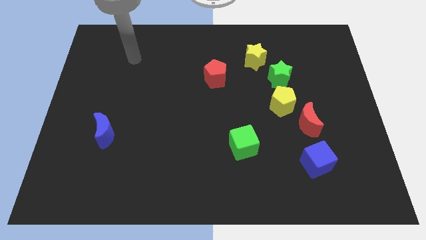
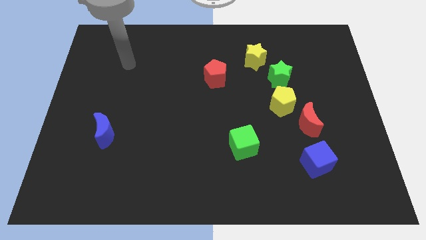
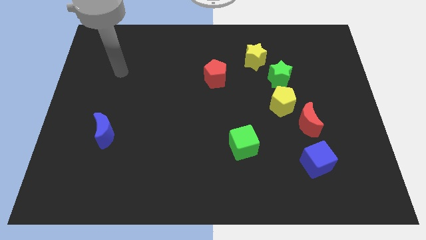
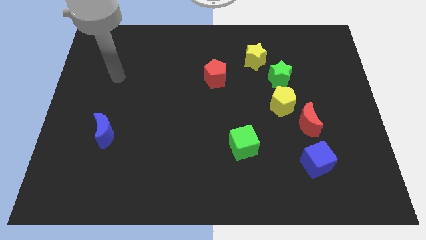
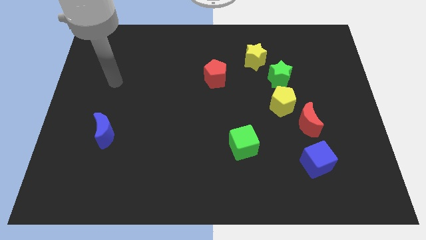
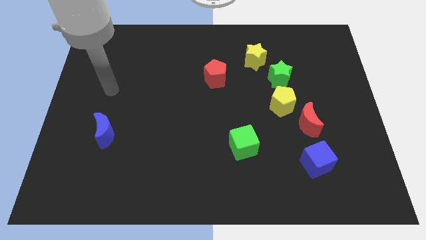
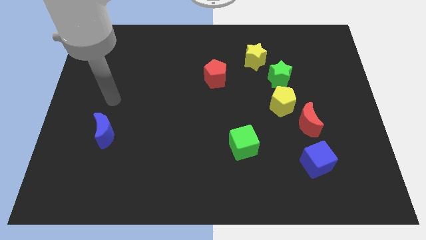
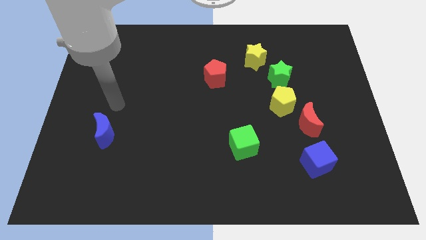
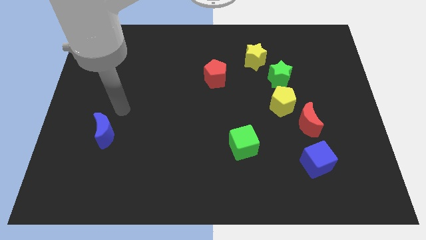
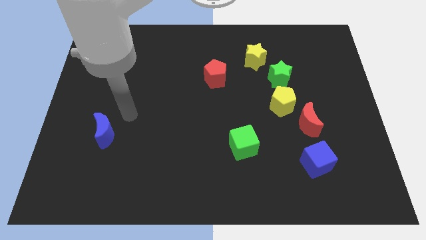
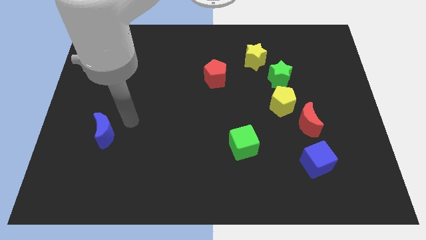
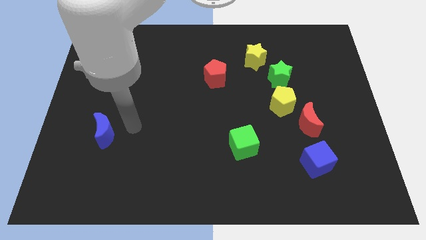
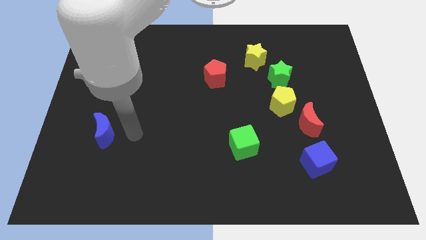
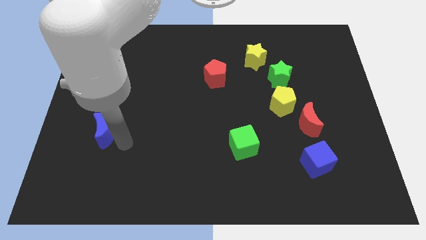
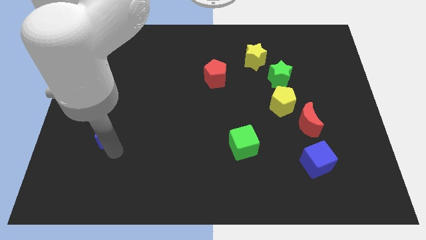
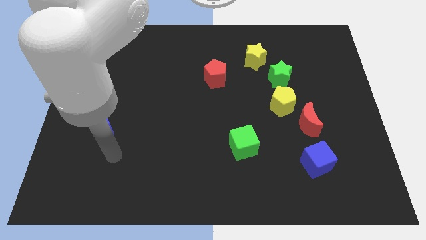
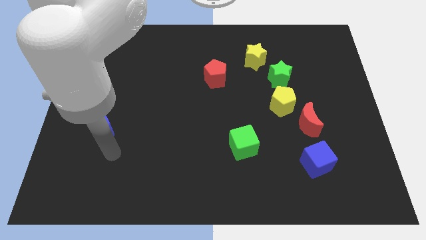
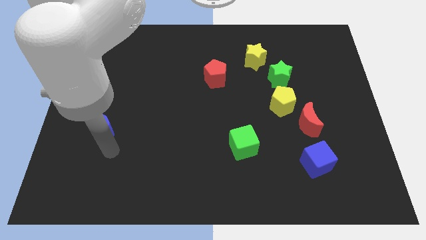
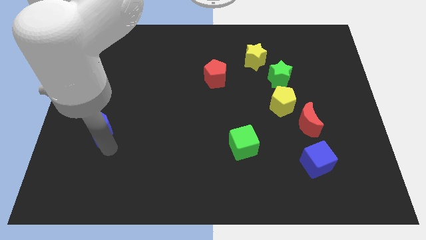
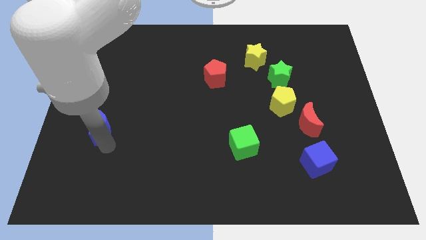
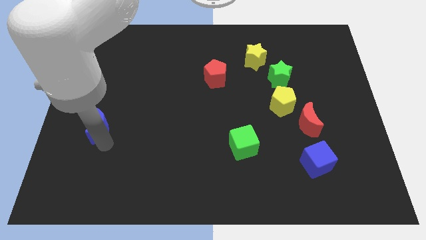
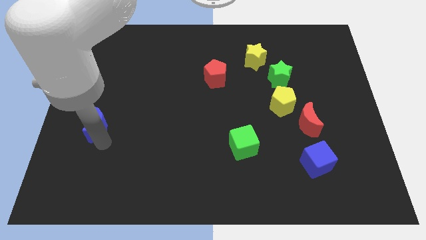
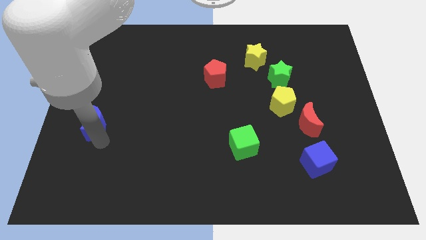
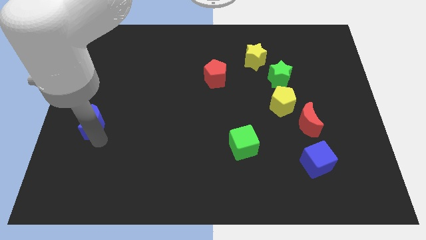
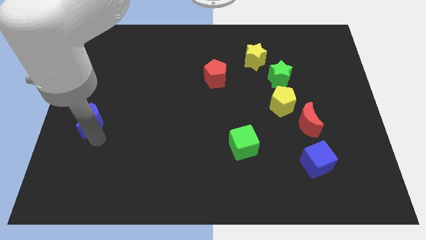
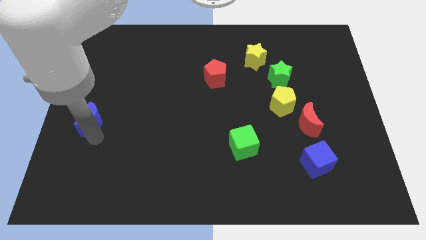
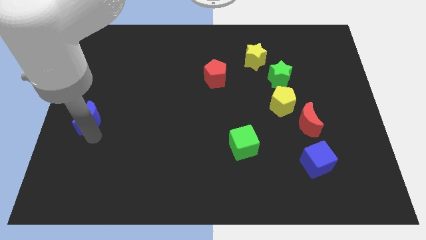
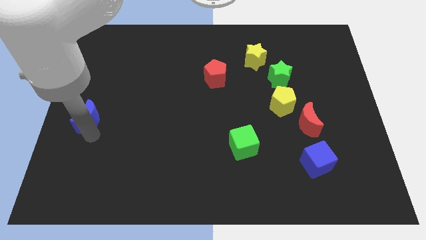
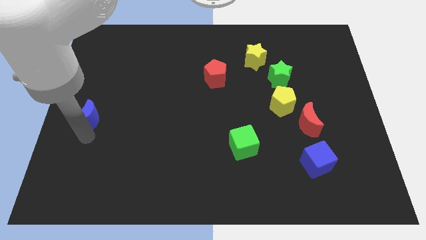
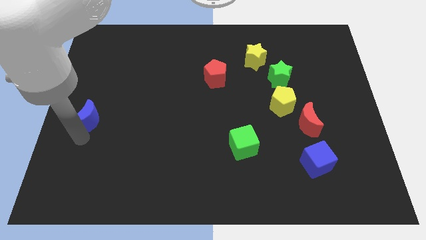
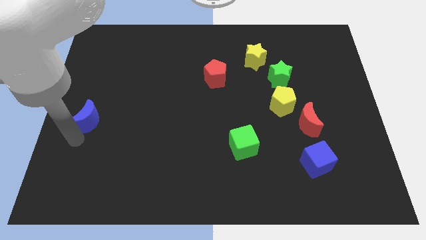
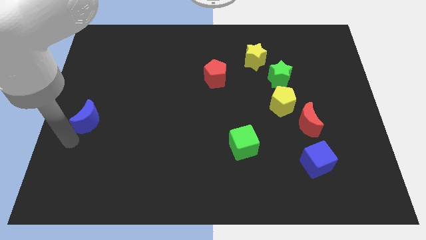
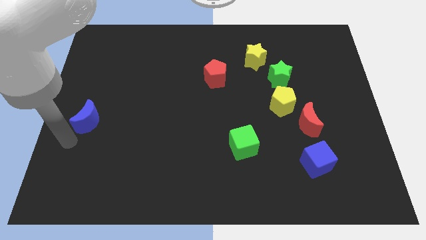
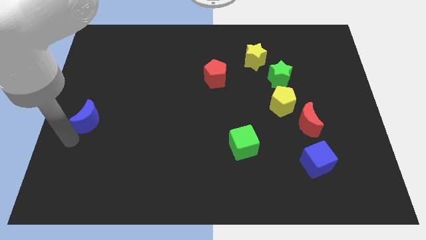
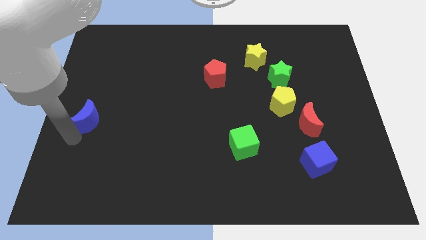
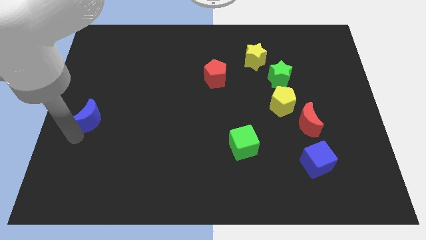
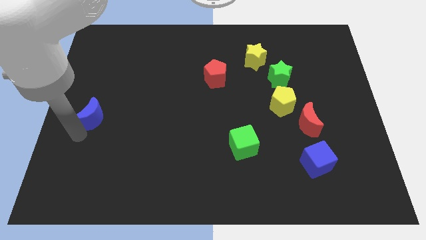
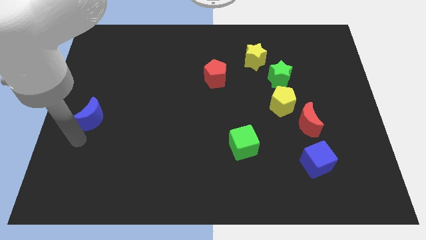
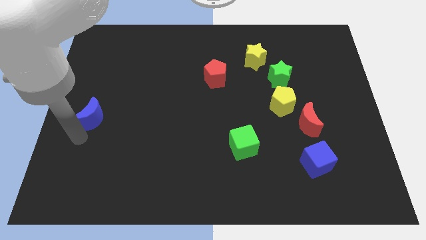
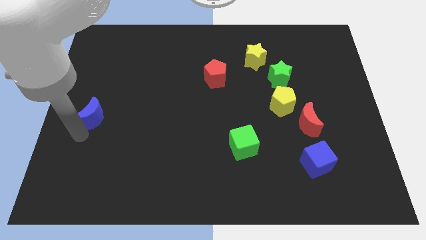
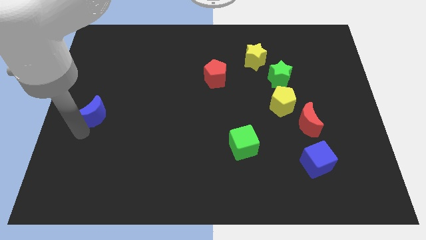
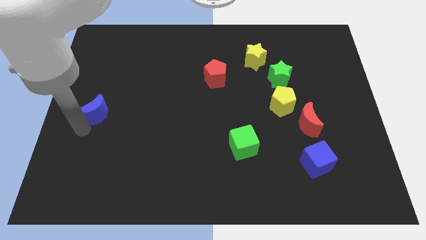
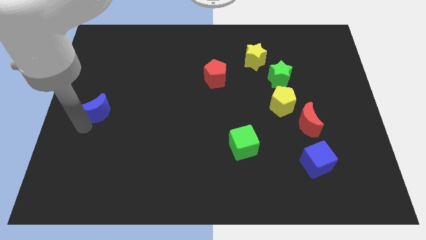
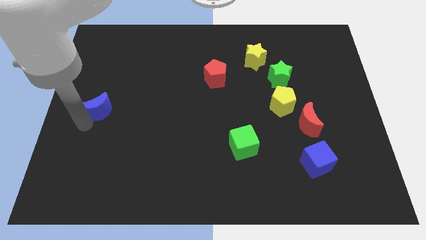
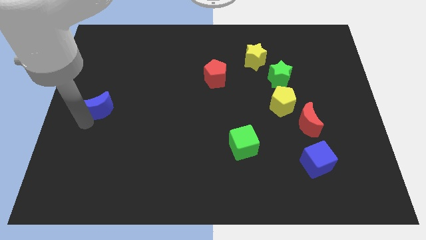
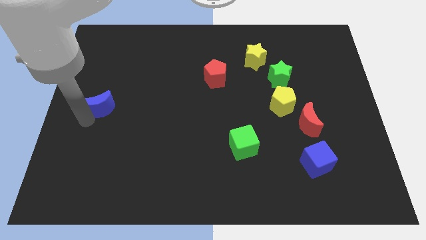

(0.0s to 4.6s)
slide the blue moon a little upwards

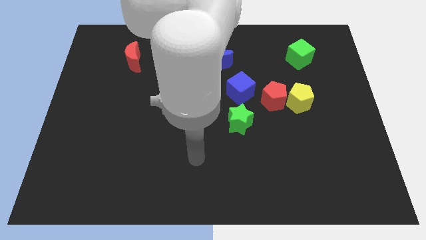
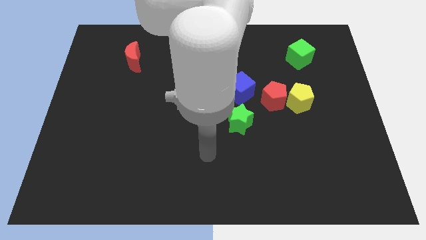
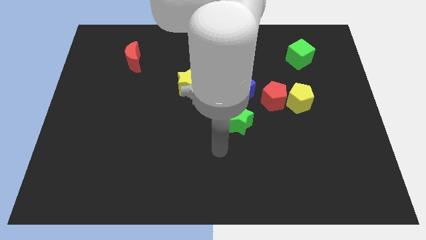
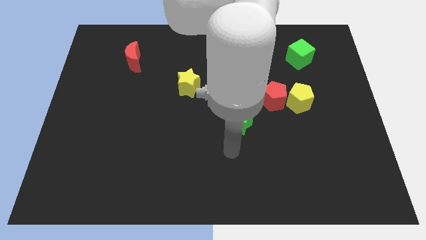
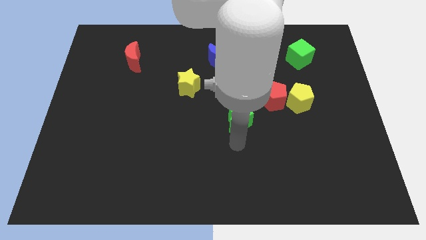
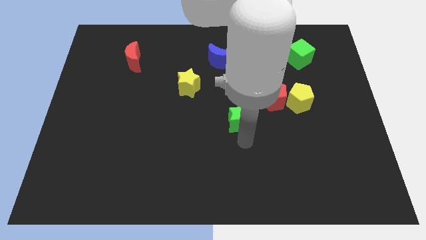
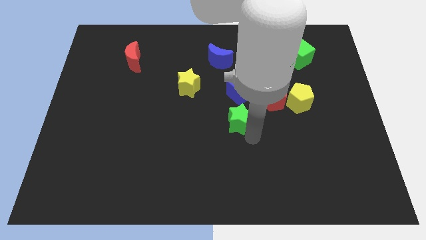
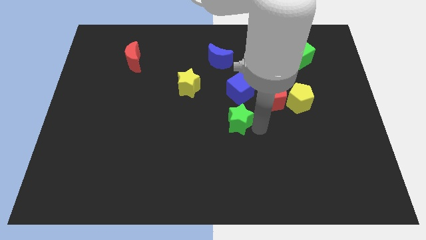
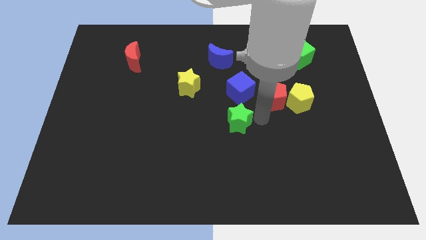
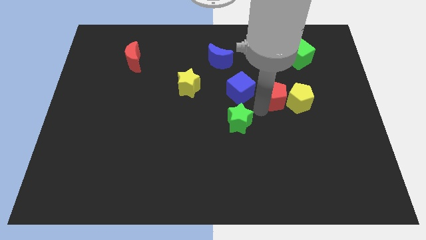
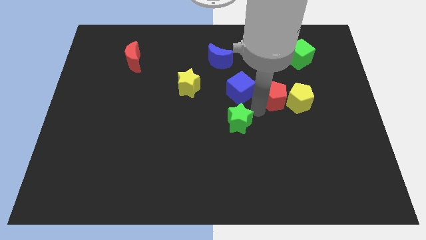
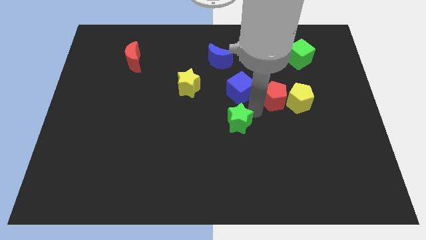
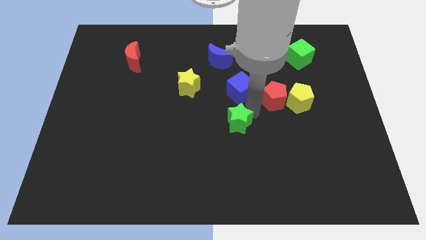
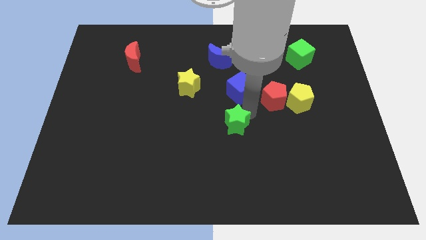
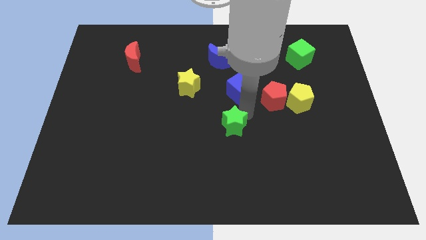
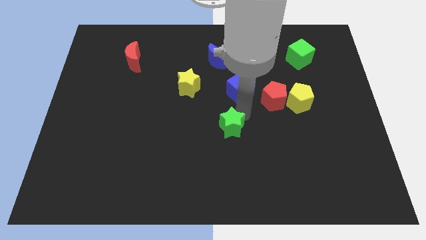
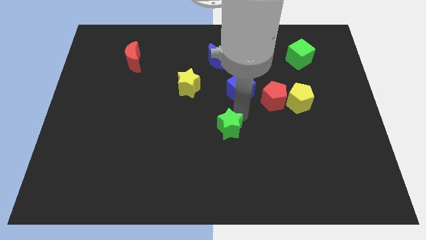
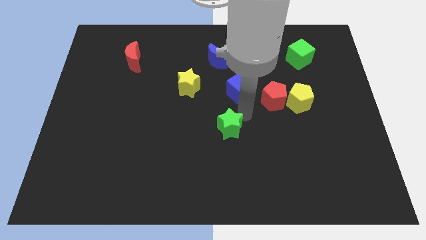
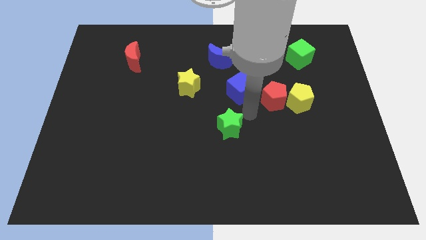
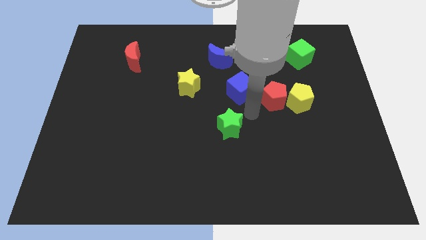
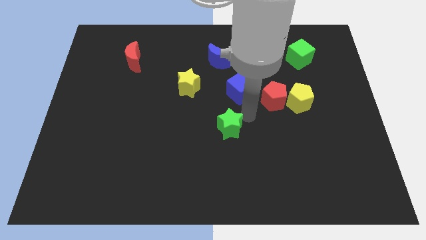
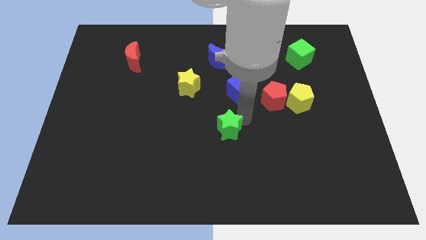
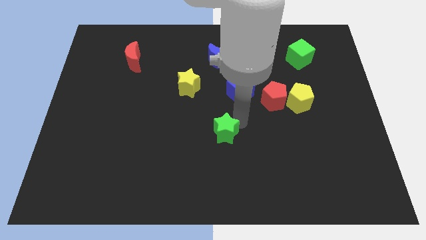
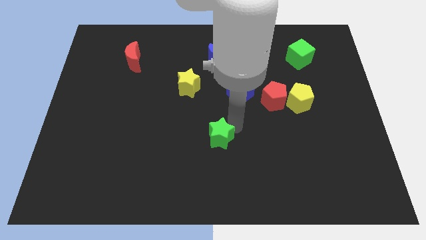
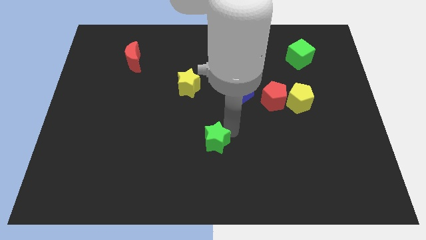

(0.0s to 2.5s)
slightly move the green star down and left

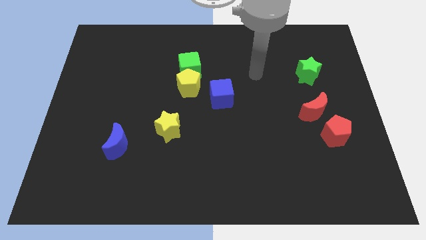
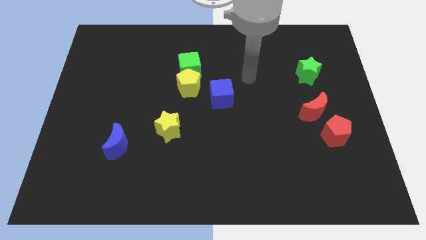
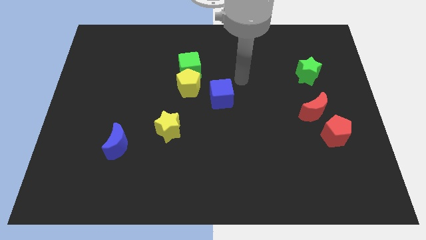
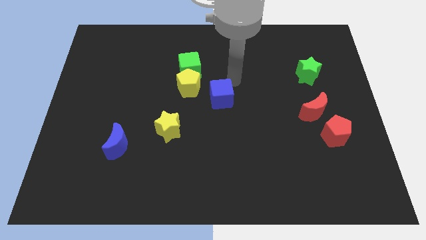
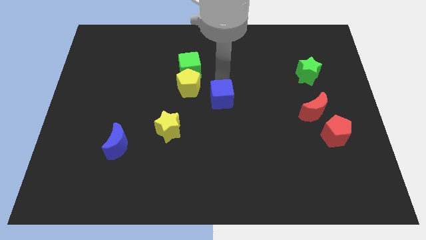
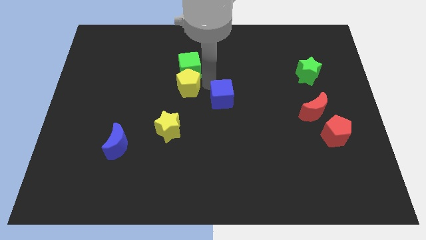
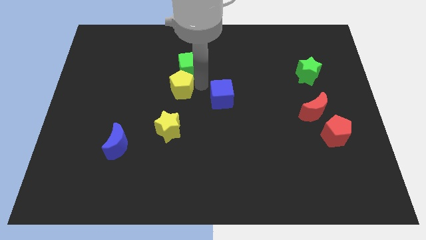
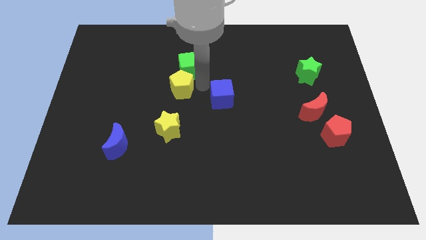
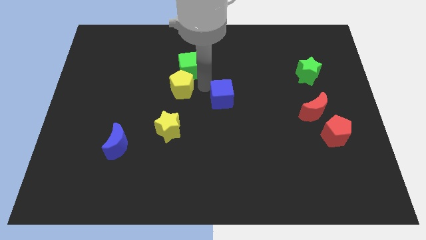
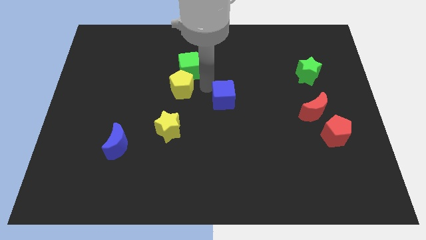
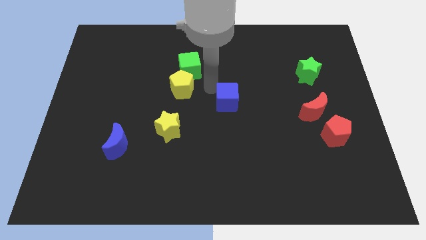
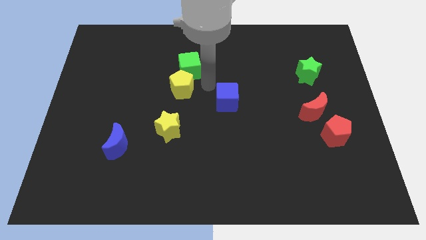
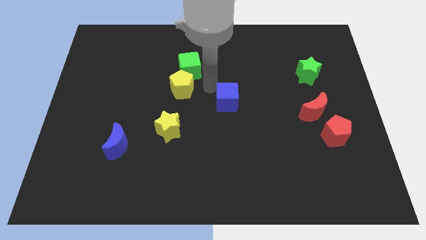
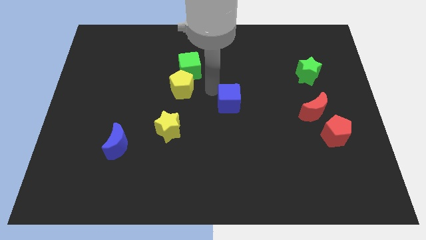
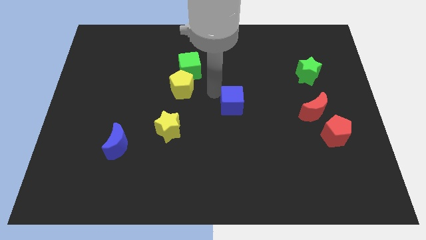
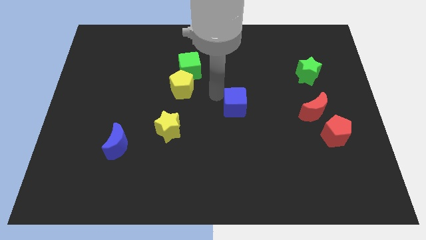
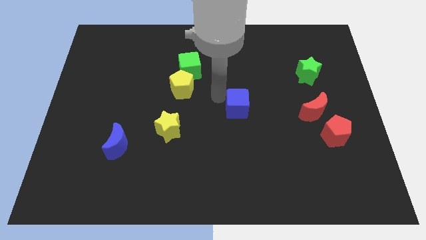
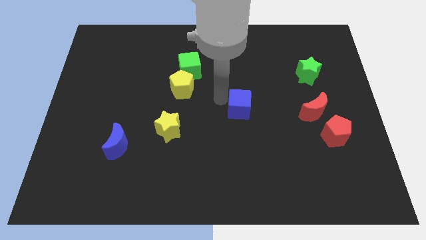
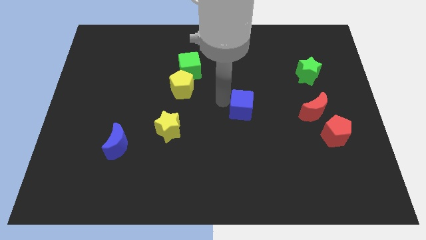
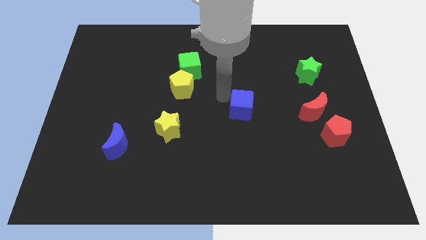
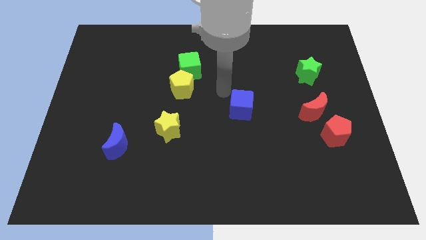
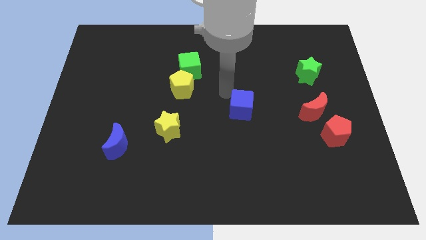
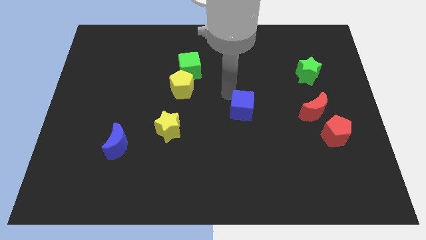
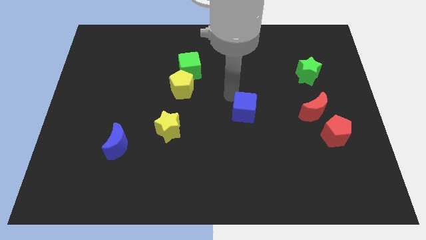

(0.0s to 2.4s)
slide the blue cube slightly downwards and to the right
